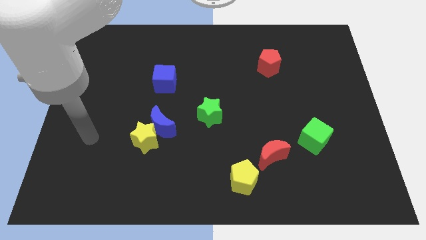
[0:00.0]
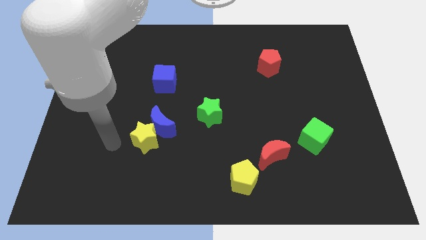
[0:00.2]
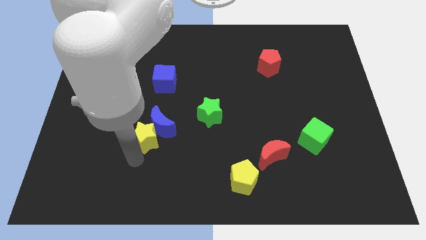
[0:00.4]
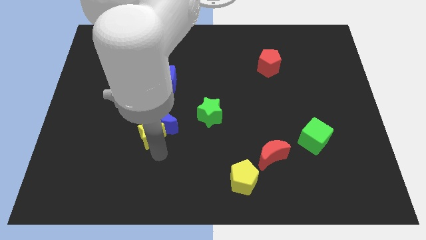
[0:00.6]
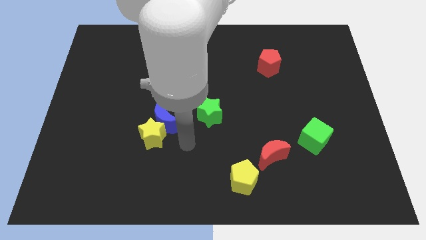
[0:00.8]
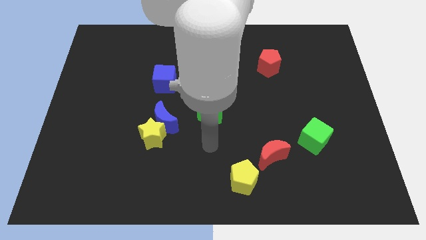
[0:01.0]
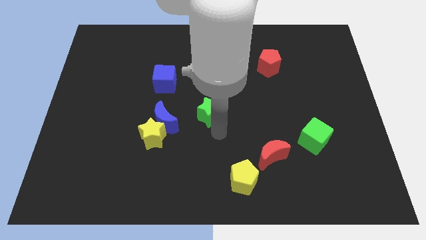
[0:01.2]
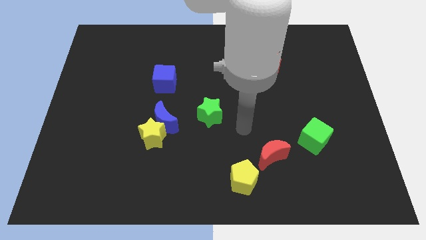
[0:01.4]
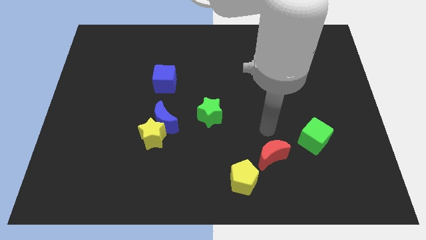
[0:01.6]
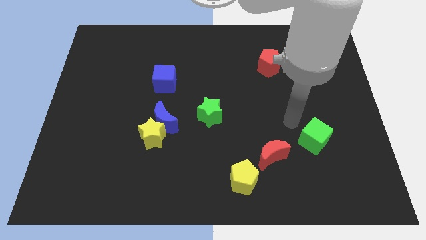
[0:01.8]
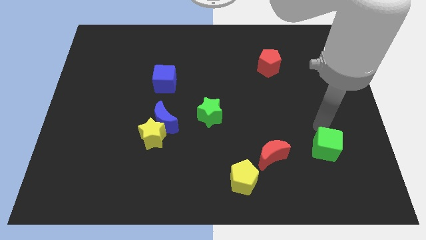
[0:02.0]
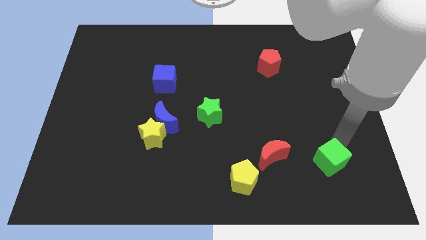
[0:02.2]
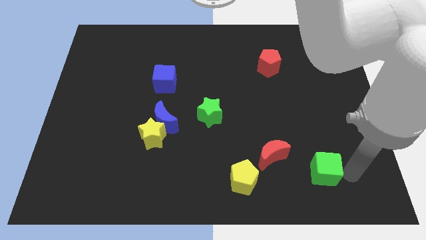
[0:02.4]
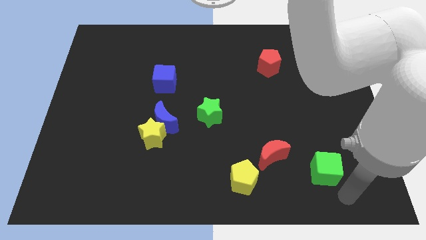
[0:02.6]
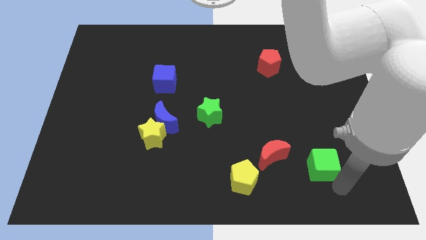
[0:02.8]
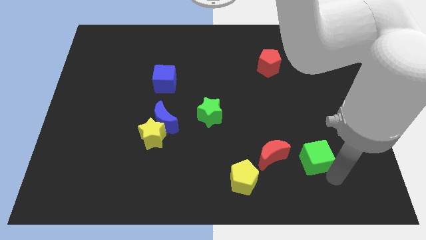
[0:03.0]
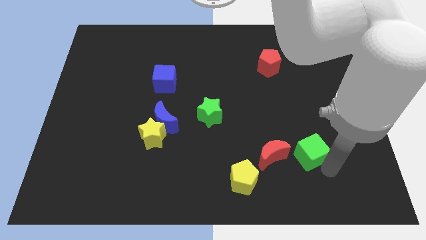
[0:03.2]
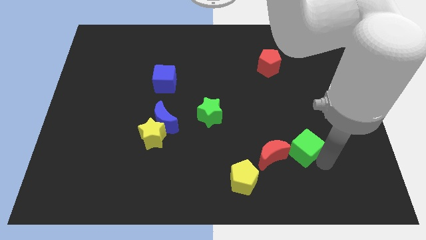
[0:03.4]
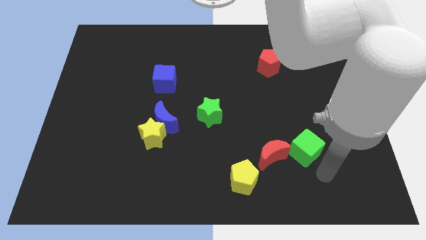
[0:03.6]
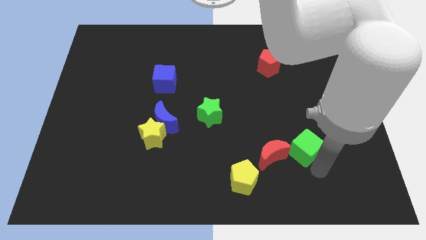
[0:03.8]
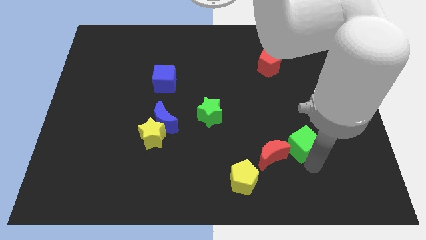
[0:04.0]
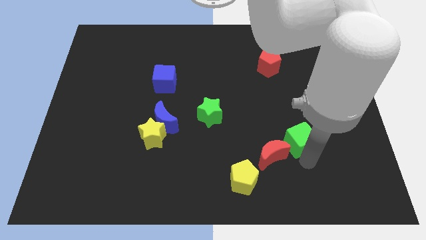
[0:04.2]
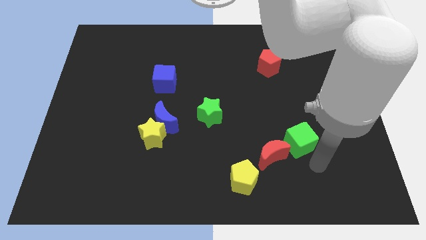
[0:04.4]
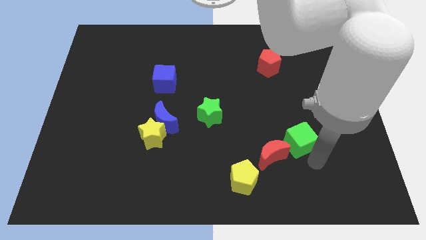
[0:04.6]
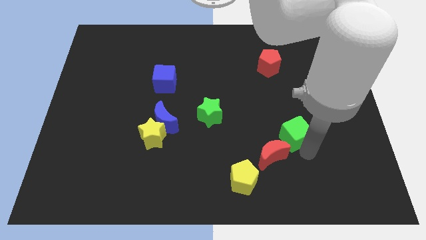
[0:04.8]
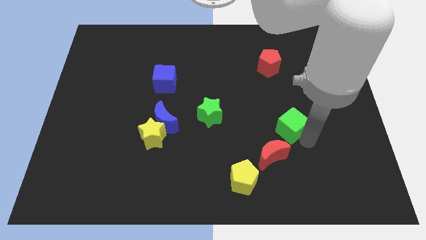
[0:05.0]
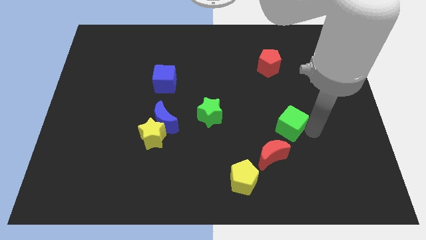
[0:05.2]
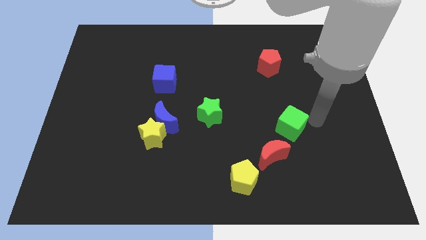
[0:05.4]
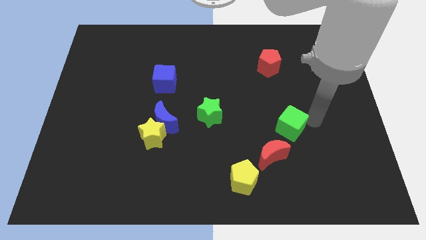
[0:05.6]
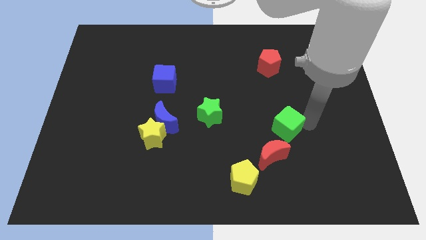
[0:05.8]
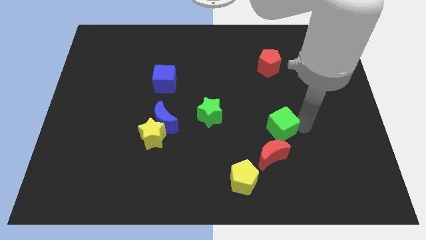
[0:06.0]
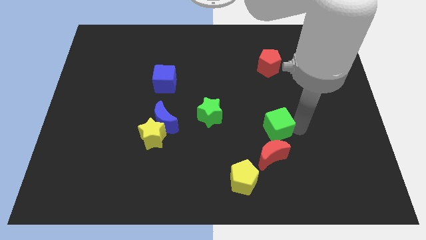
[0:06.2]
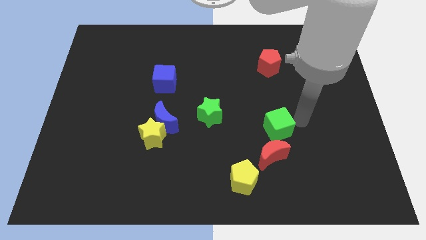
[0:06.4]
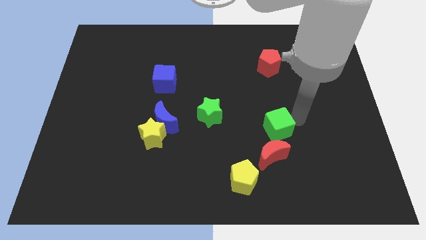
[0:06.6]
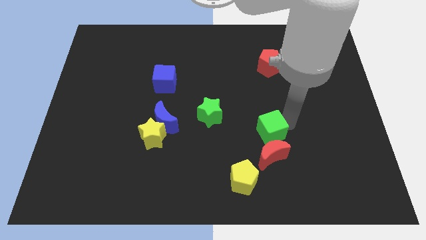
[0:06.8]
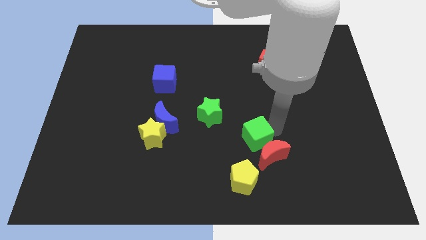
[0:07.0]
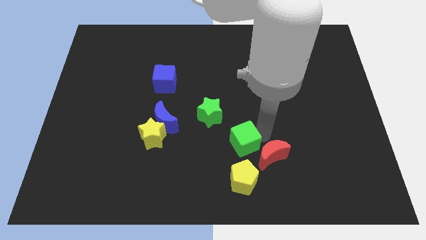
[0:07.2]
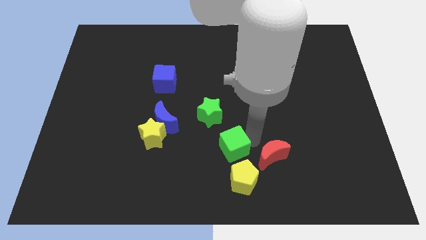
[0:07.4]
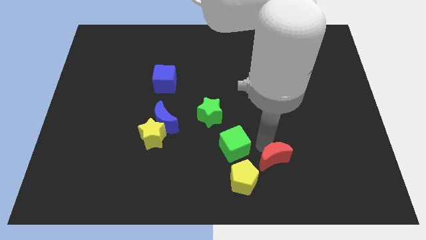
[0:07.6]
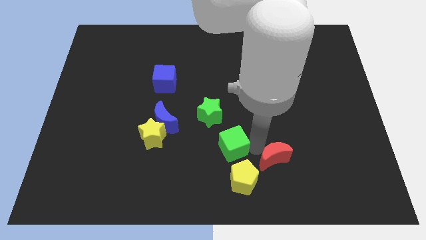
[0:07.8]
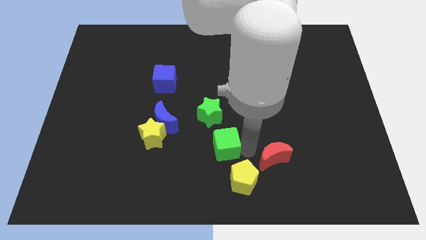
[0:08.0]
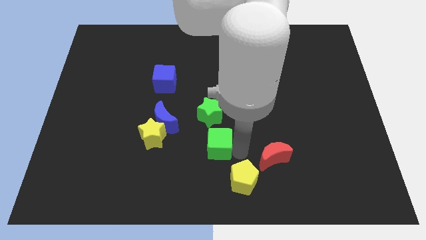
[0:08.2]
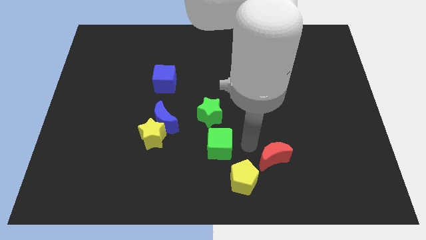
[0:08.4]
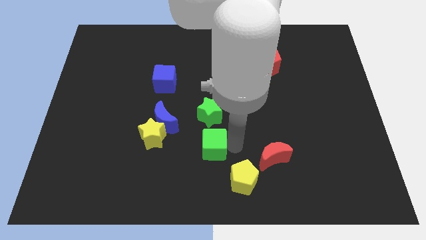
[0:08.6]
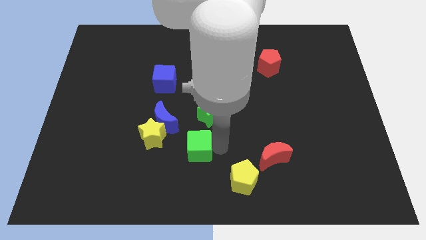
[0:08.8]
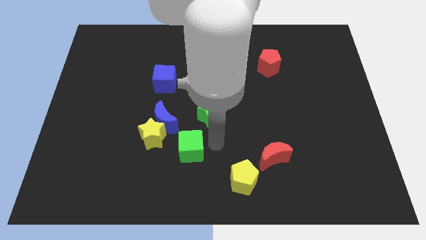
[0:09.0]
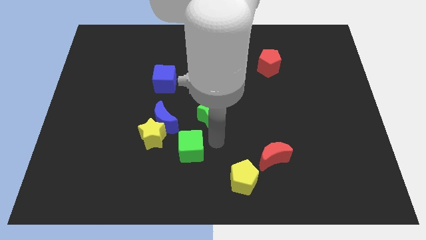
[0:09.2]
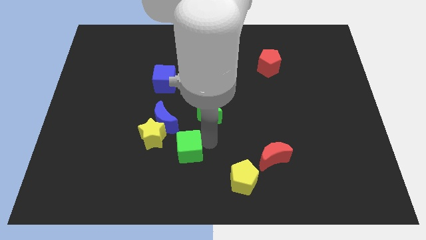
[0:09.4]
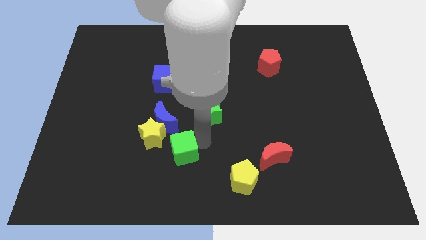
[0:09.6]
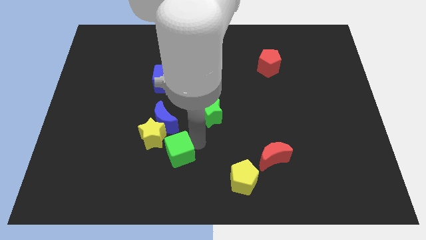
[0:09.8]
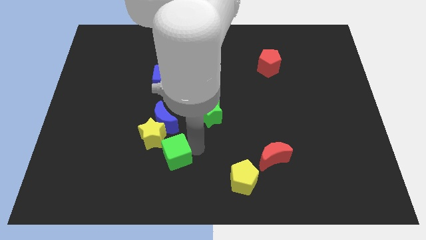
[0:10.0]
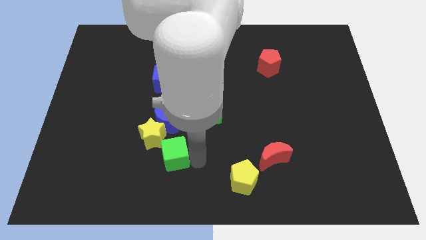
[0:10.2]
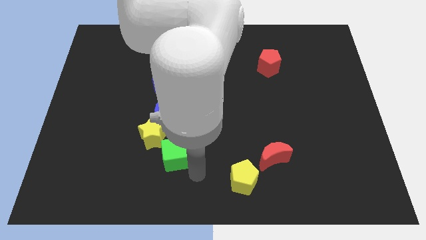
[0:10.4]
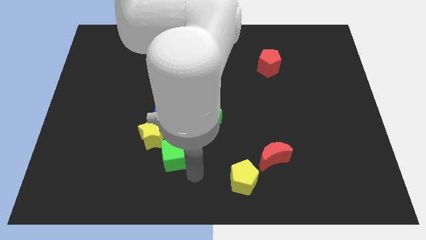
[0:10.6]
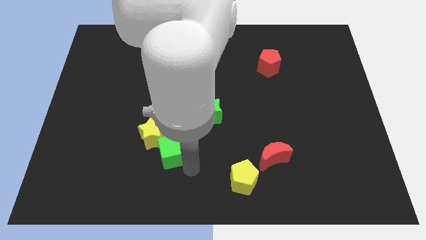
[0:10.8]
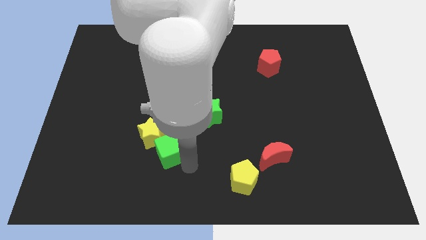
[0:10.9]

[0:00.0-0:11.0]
push the green cube close to the yellow star

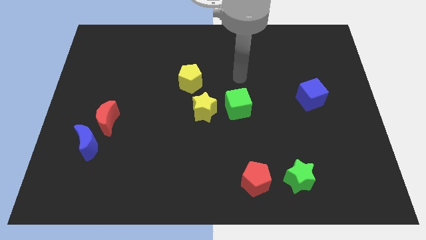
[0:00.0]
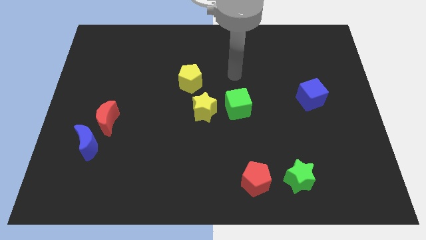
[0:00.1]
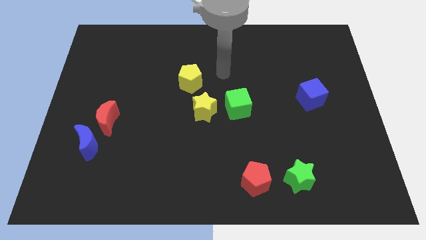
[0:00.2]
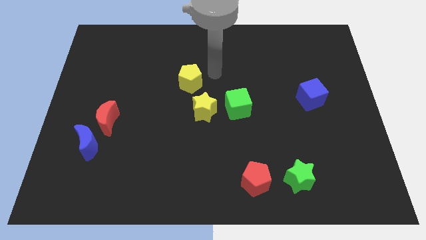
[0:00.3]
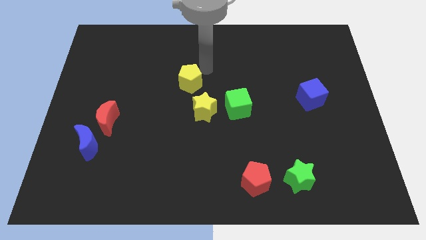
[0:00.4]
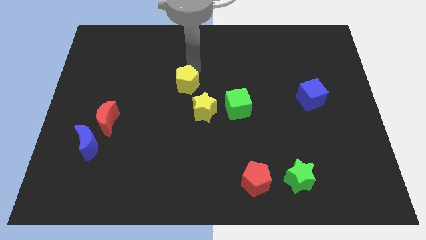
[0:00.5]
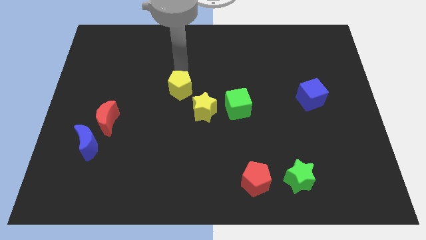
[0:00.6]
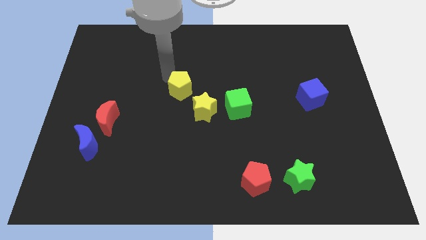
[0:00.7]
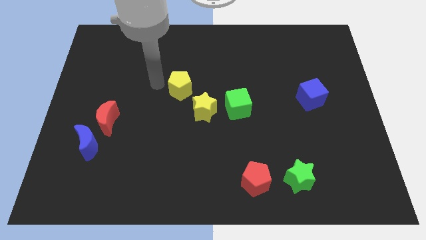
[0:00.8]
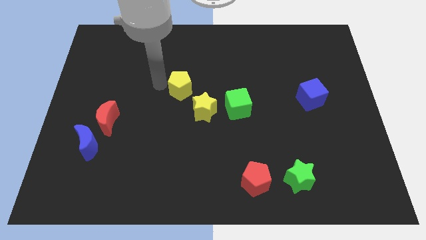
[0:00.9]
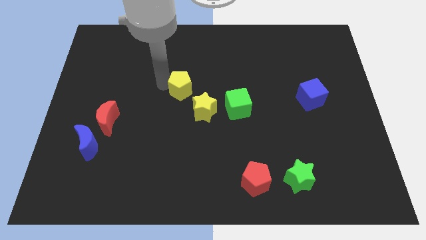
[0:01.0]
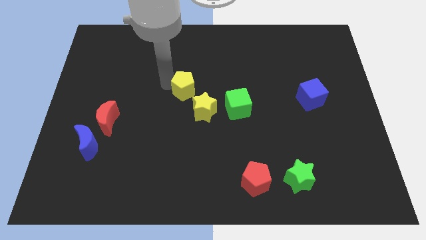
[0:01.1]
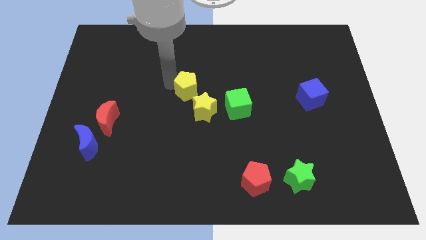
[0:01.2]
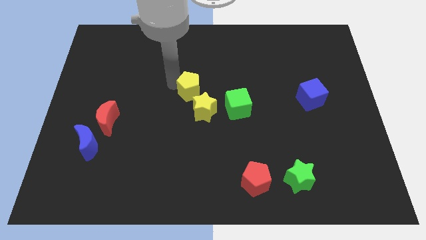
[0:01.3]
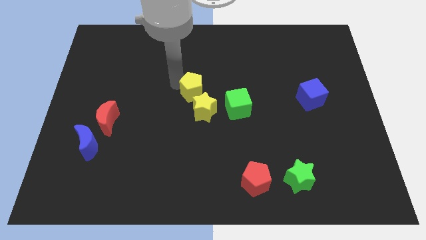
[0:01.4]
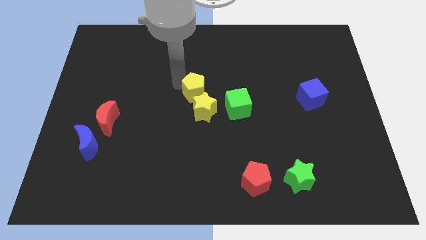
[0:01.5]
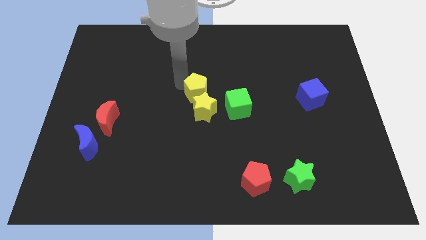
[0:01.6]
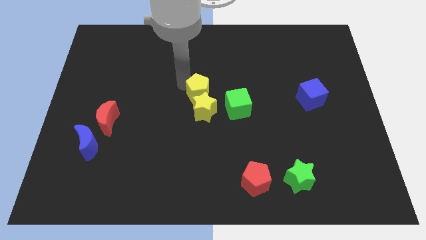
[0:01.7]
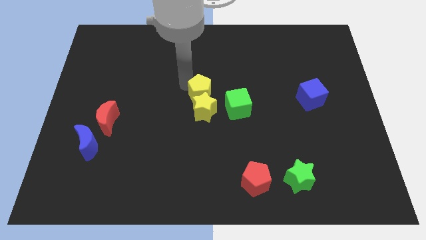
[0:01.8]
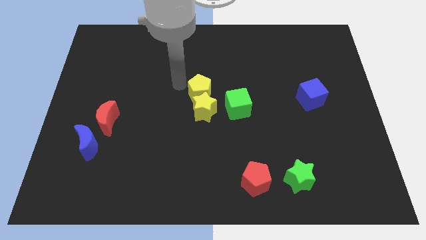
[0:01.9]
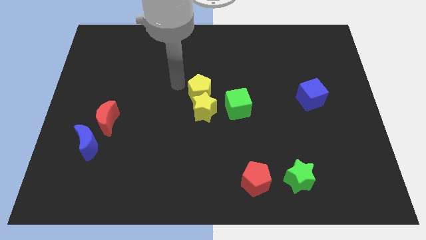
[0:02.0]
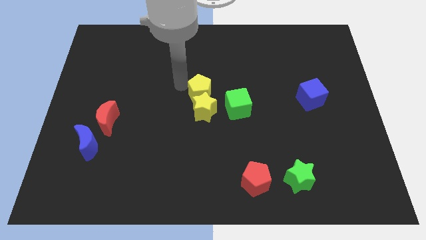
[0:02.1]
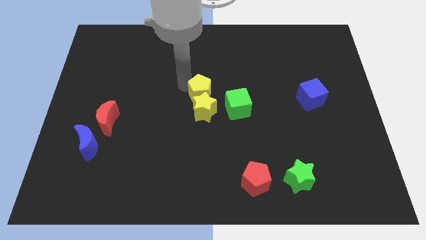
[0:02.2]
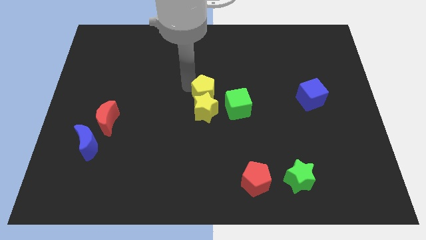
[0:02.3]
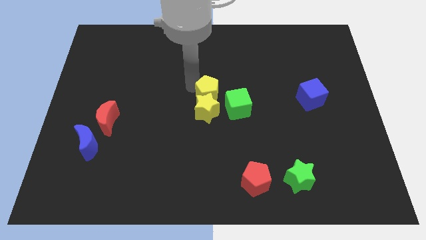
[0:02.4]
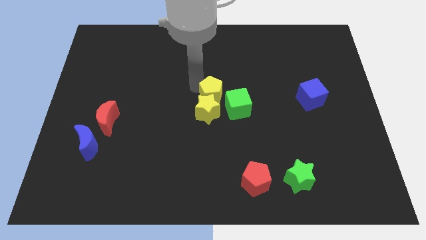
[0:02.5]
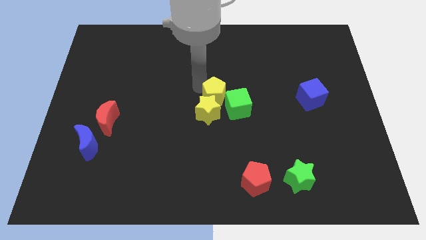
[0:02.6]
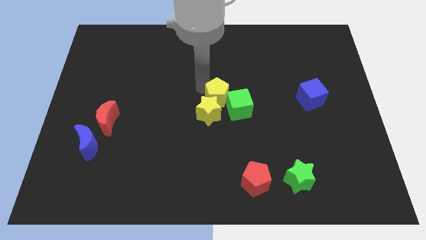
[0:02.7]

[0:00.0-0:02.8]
push the yellow pentagon to the green cube
